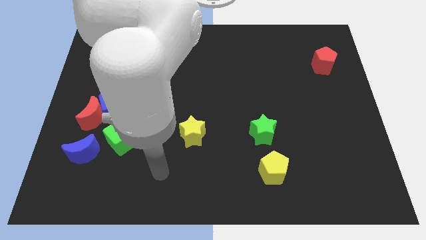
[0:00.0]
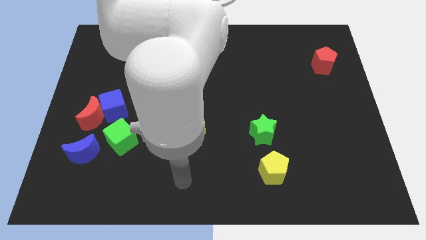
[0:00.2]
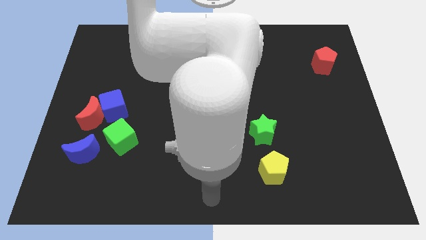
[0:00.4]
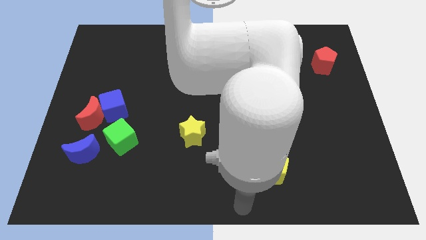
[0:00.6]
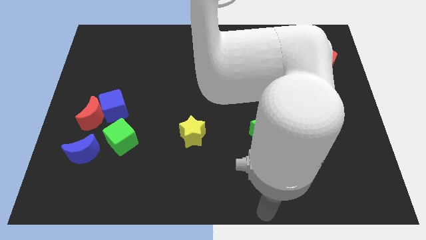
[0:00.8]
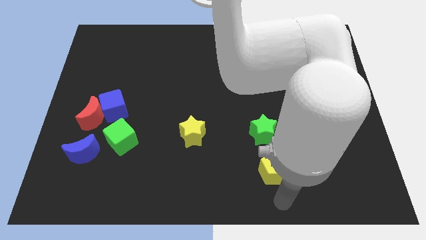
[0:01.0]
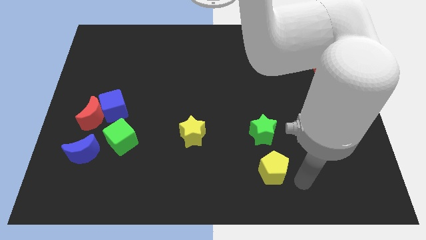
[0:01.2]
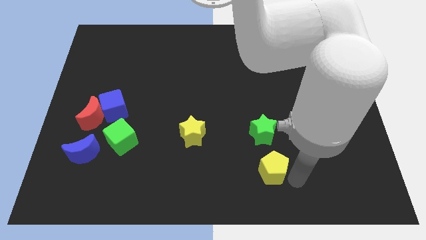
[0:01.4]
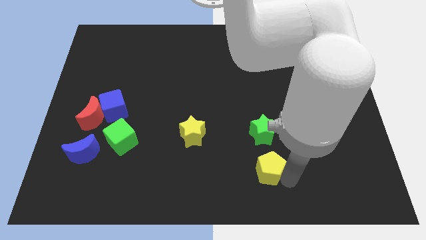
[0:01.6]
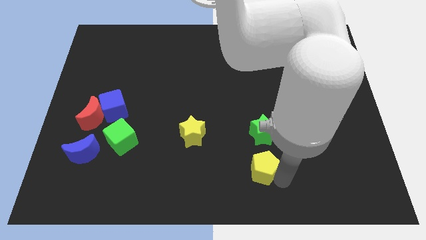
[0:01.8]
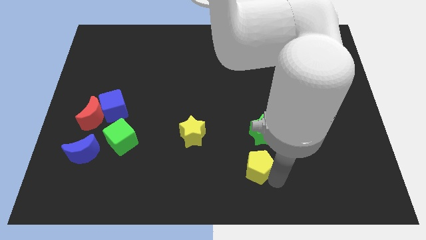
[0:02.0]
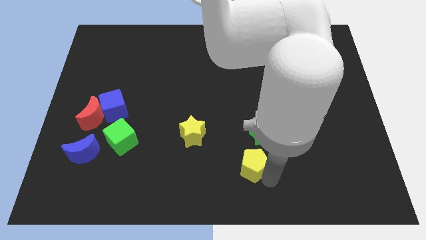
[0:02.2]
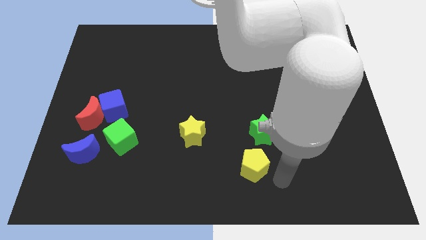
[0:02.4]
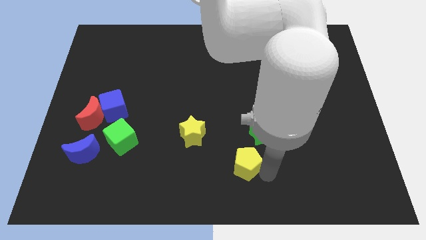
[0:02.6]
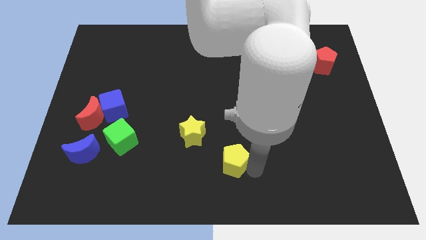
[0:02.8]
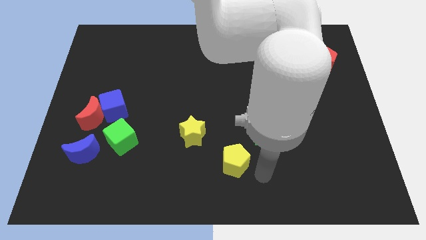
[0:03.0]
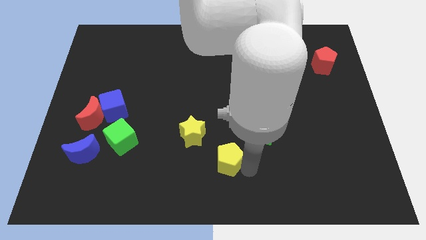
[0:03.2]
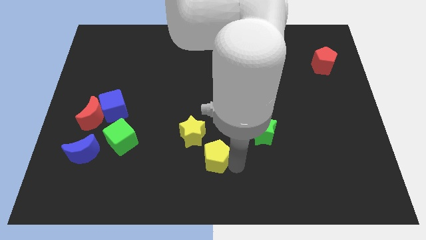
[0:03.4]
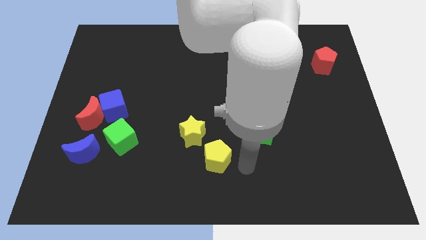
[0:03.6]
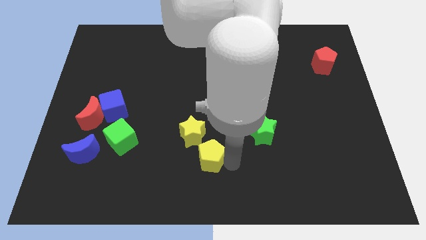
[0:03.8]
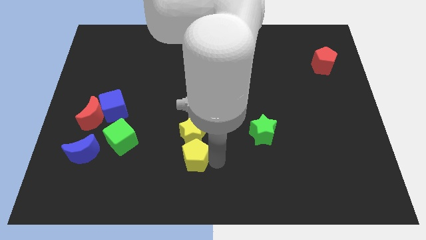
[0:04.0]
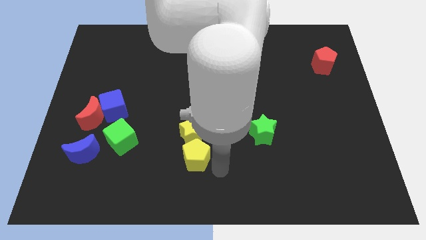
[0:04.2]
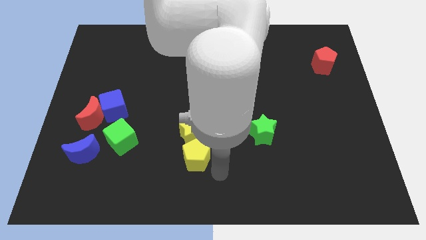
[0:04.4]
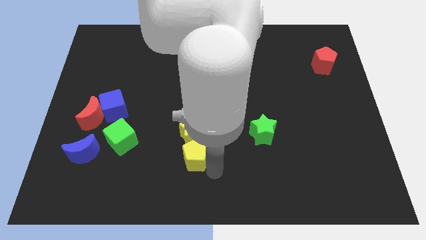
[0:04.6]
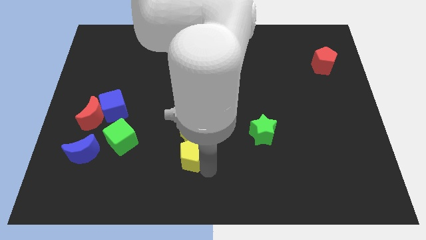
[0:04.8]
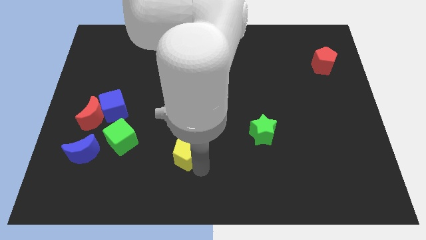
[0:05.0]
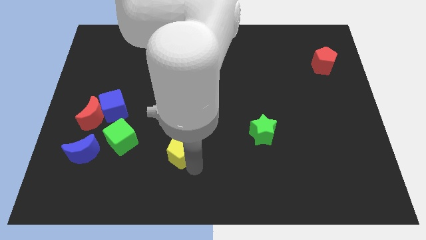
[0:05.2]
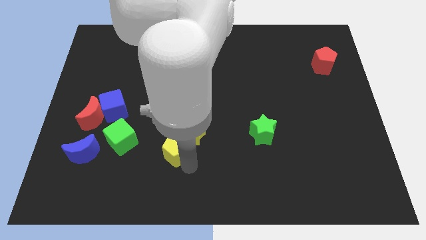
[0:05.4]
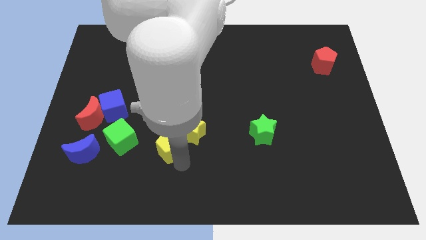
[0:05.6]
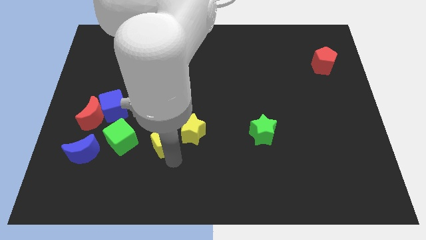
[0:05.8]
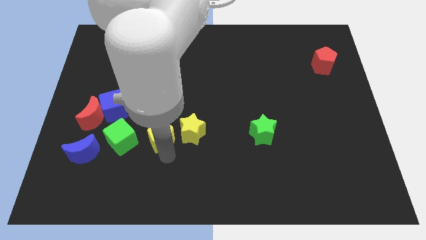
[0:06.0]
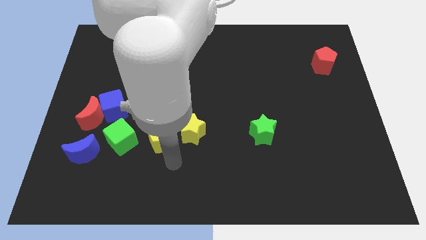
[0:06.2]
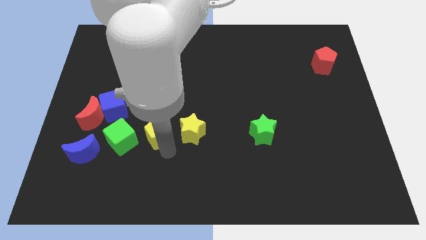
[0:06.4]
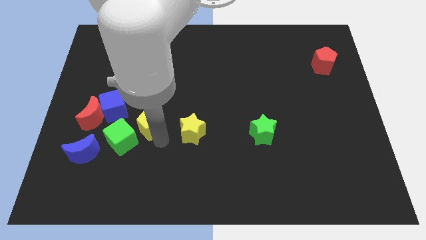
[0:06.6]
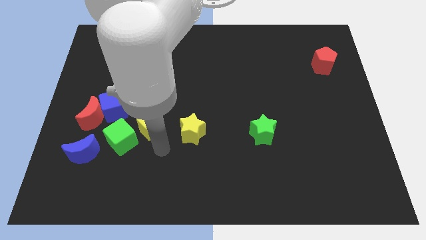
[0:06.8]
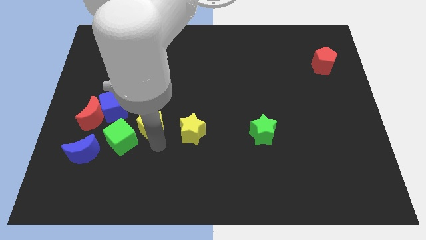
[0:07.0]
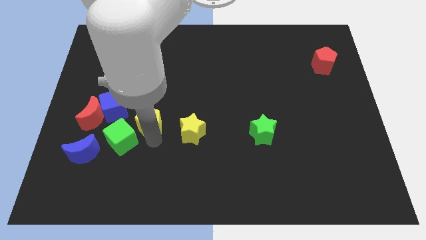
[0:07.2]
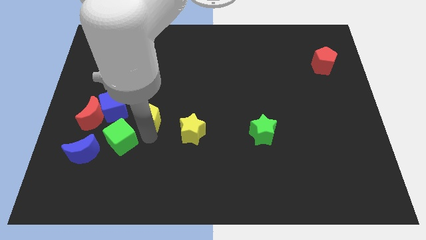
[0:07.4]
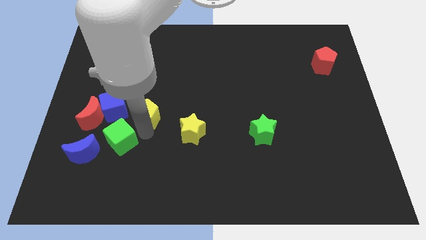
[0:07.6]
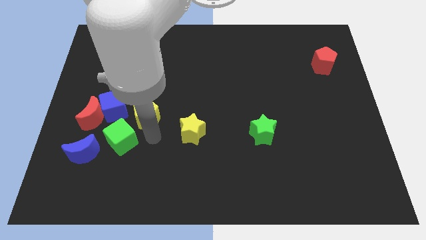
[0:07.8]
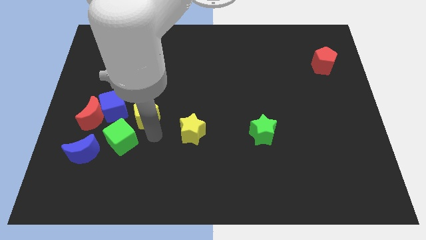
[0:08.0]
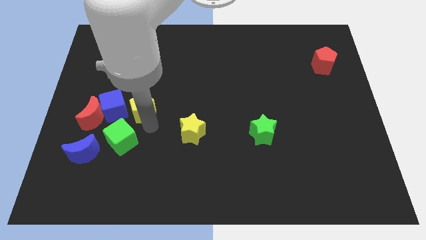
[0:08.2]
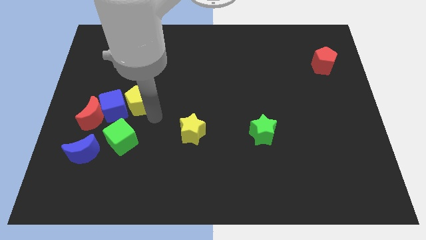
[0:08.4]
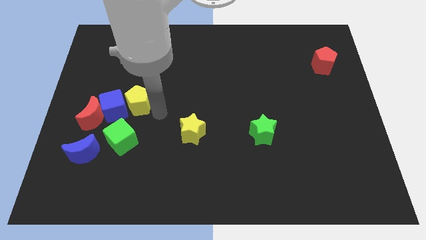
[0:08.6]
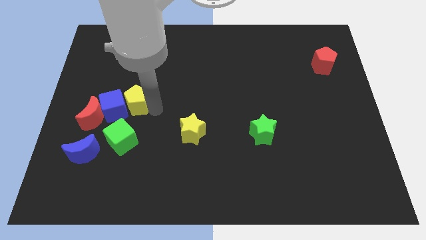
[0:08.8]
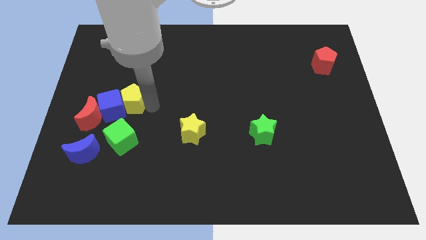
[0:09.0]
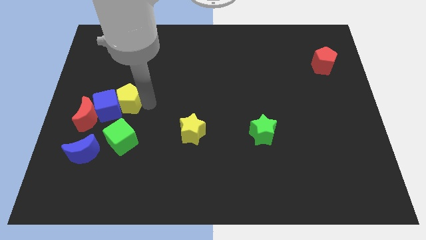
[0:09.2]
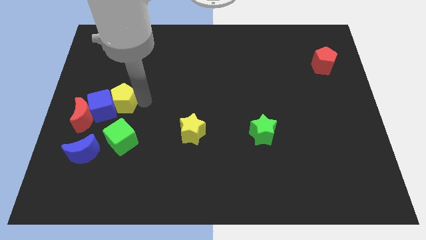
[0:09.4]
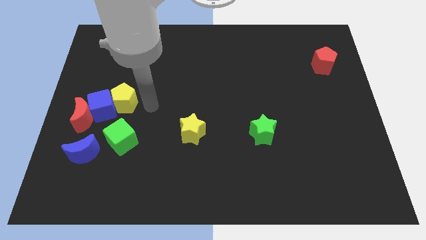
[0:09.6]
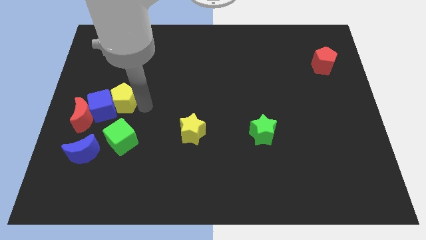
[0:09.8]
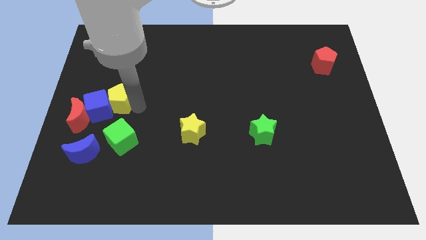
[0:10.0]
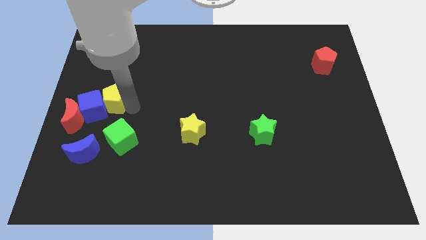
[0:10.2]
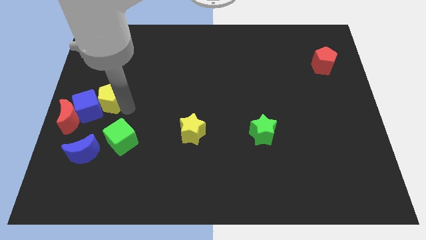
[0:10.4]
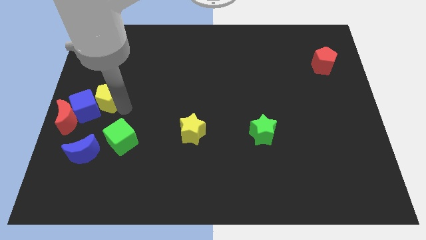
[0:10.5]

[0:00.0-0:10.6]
move the yellow pentagon to the center left

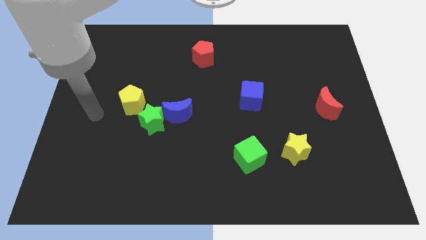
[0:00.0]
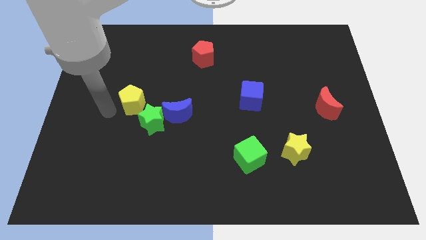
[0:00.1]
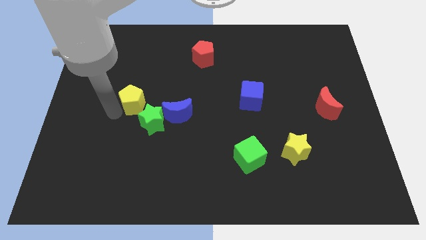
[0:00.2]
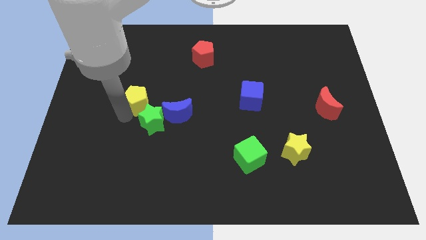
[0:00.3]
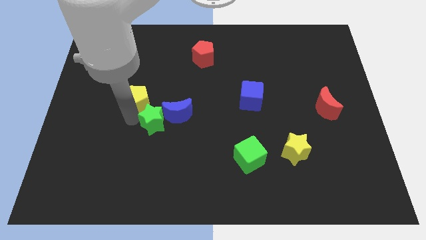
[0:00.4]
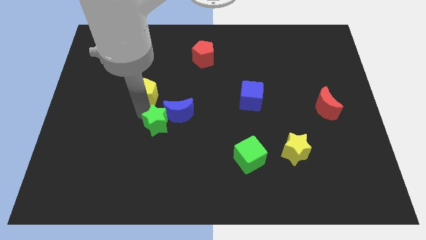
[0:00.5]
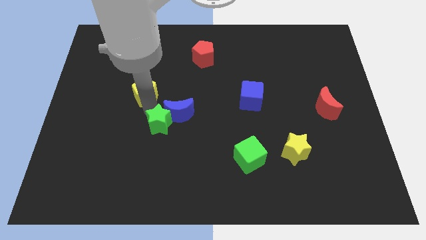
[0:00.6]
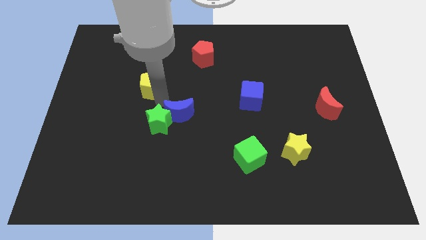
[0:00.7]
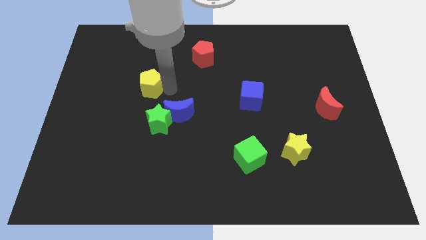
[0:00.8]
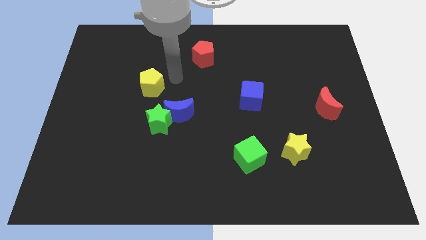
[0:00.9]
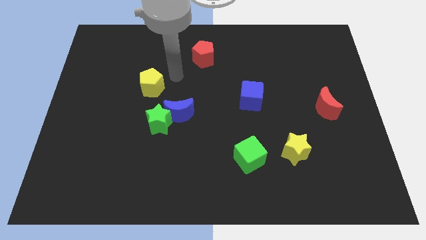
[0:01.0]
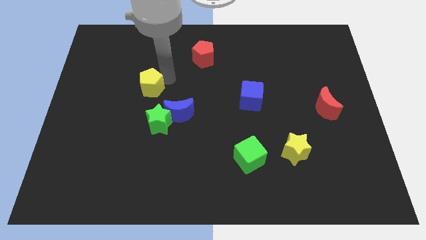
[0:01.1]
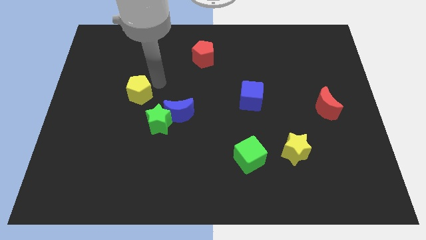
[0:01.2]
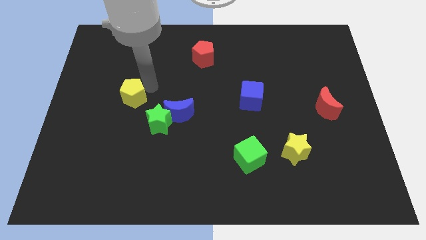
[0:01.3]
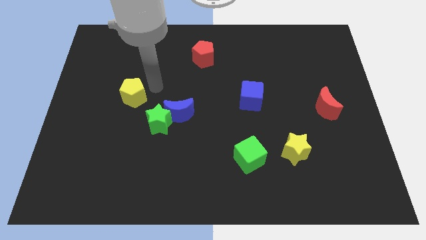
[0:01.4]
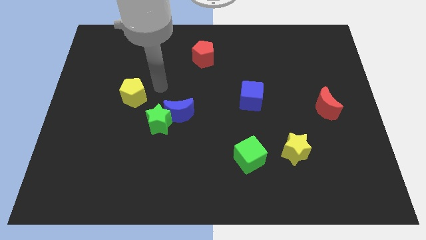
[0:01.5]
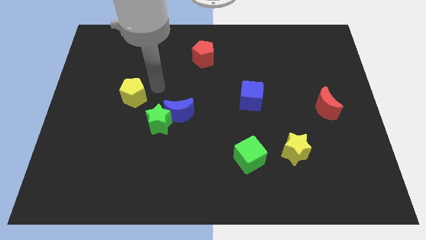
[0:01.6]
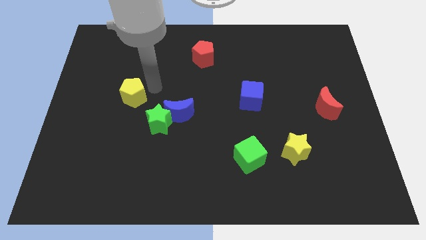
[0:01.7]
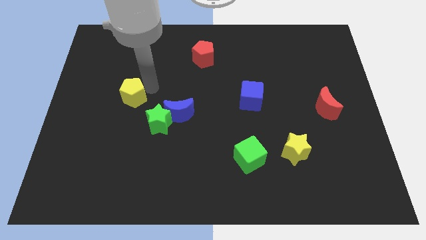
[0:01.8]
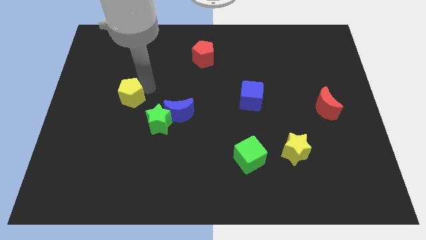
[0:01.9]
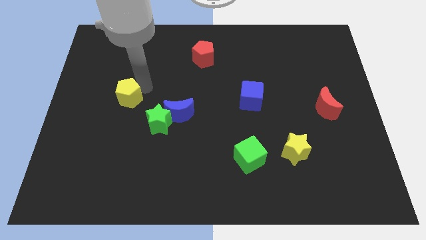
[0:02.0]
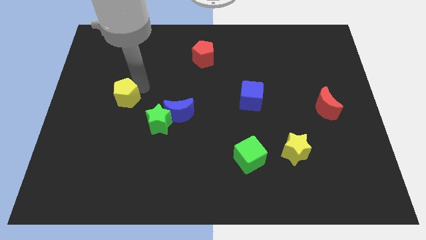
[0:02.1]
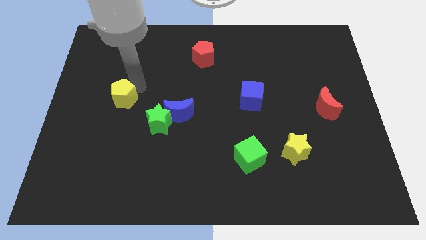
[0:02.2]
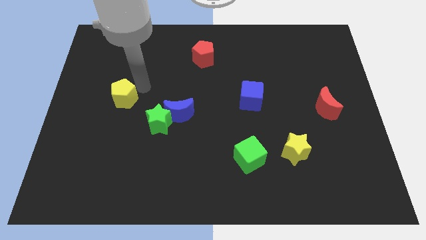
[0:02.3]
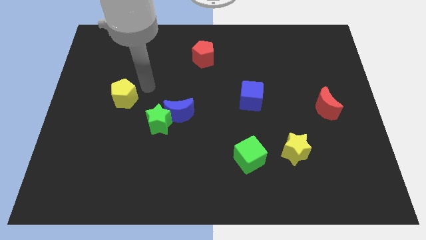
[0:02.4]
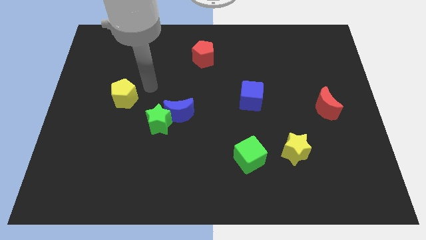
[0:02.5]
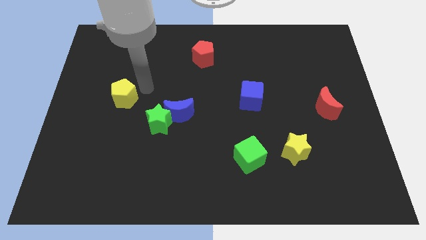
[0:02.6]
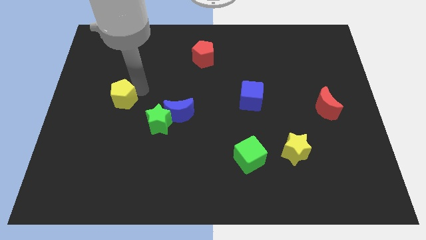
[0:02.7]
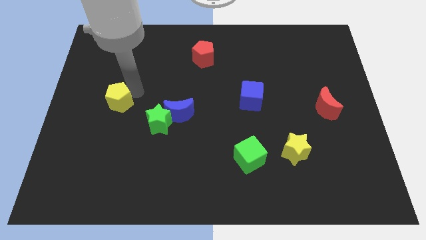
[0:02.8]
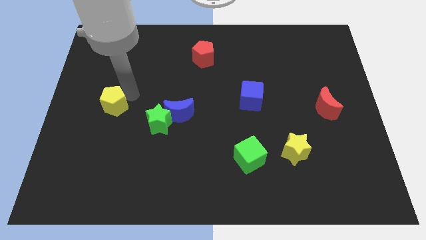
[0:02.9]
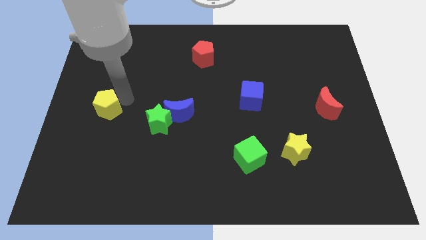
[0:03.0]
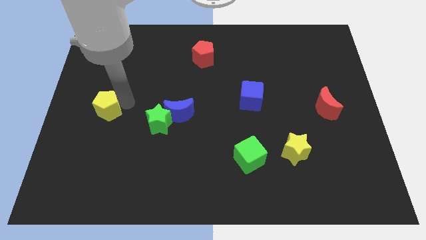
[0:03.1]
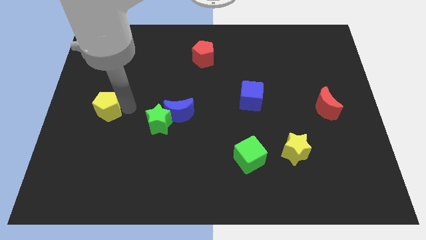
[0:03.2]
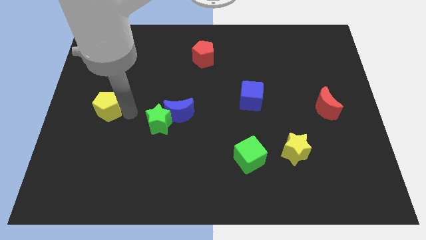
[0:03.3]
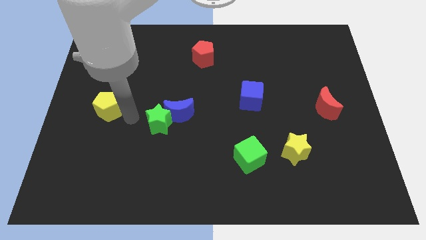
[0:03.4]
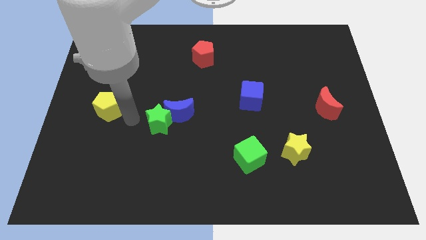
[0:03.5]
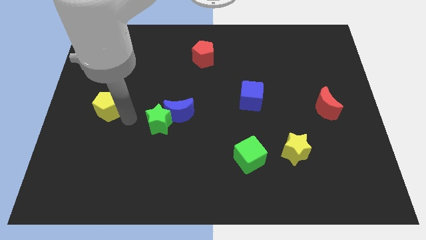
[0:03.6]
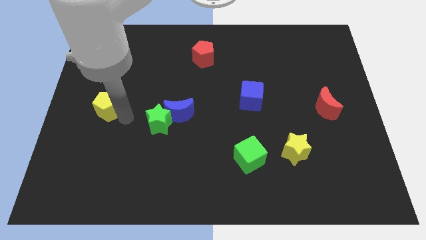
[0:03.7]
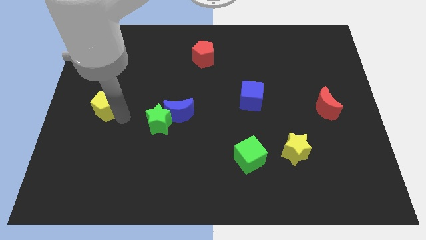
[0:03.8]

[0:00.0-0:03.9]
push the yellow pentagon to the left side
